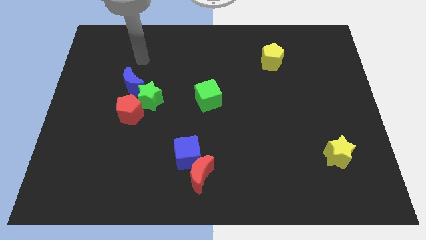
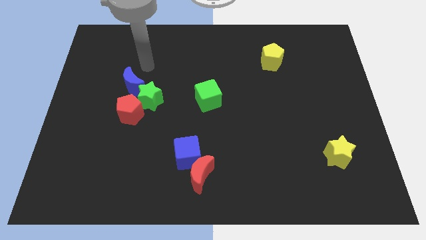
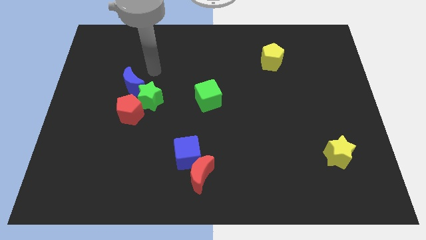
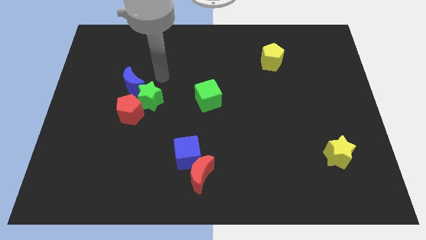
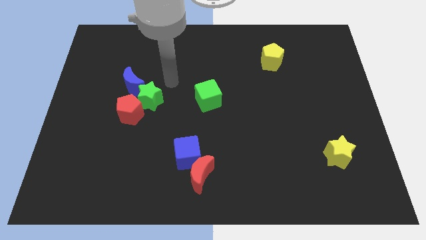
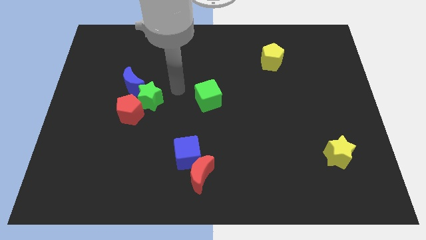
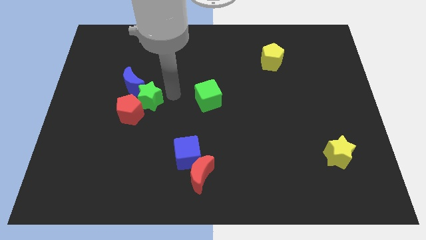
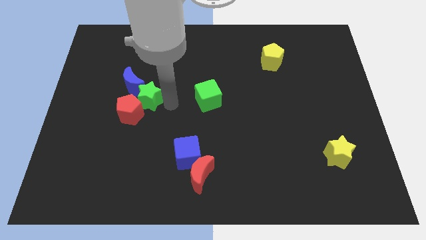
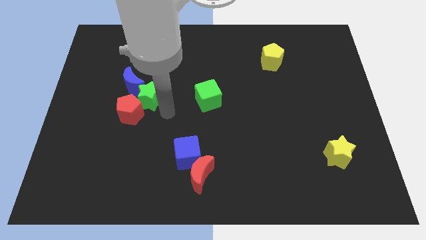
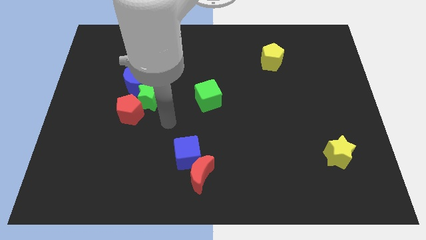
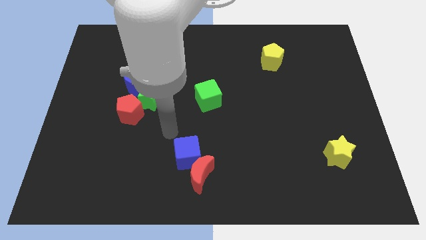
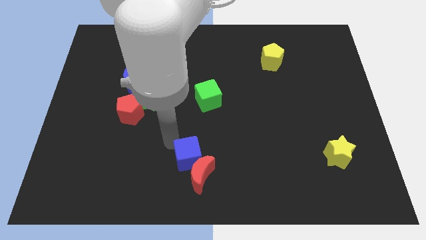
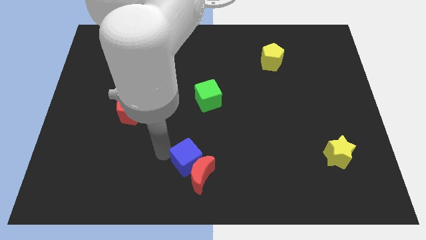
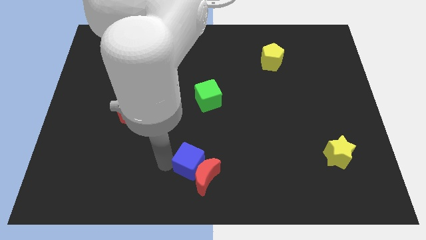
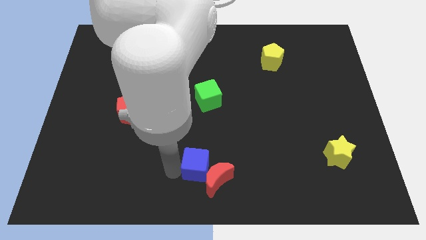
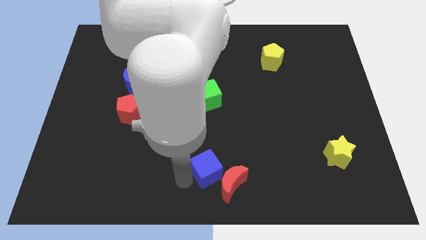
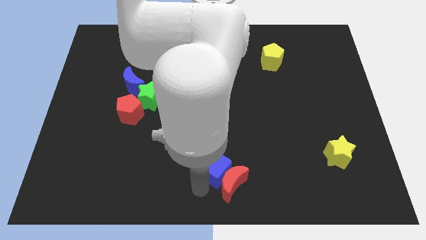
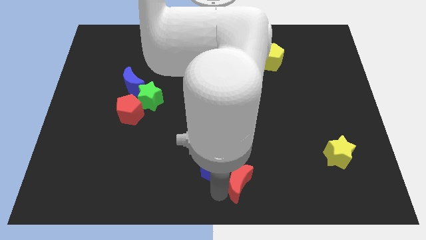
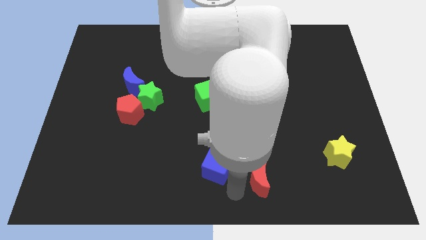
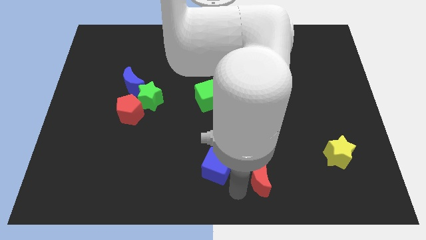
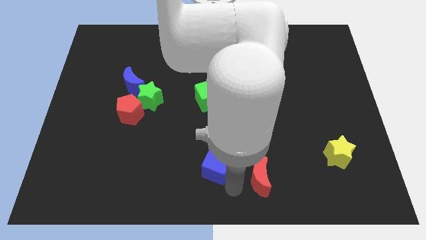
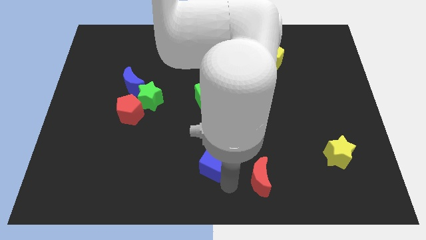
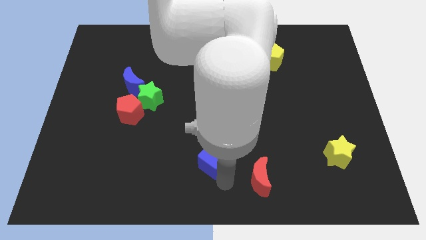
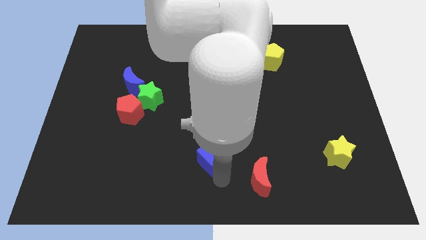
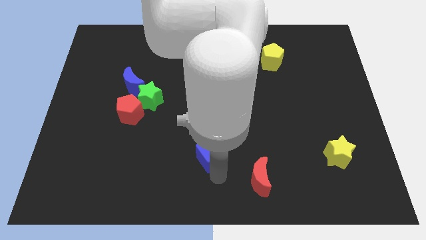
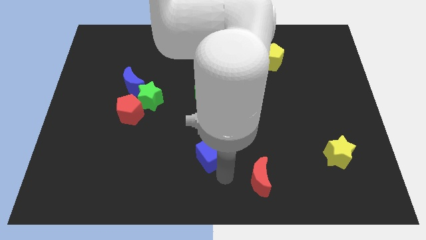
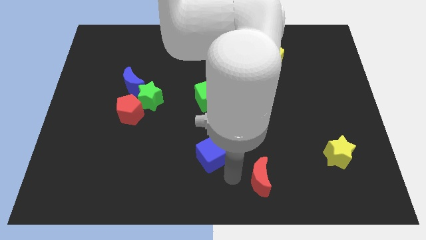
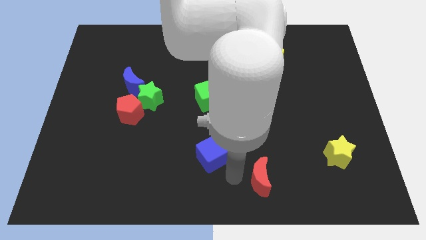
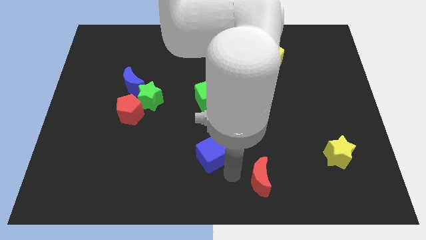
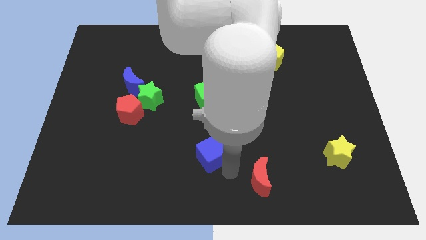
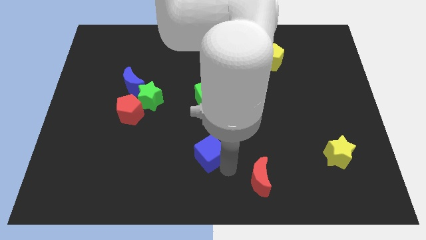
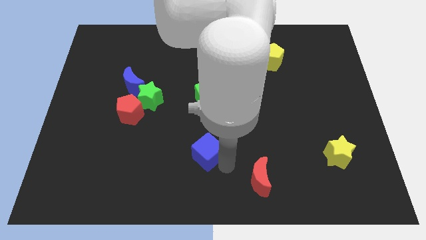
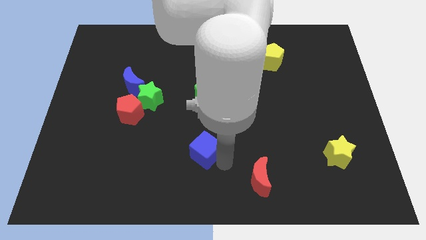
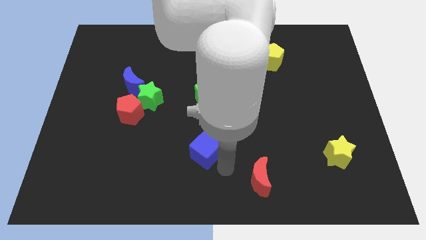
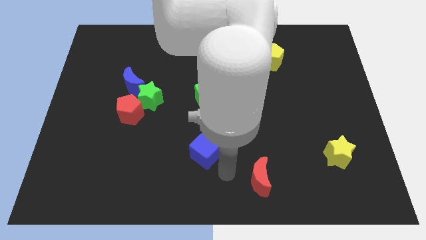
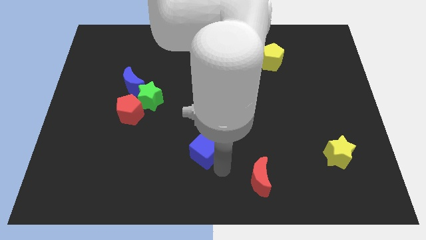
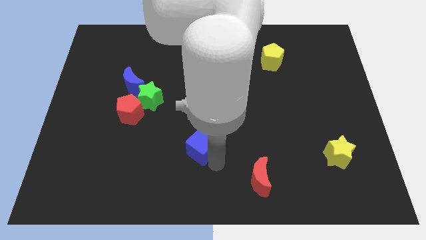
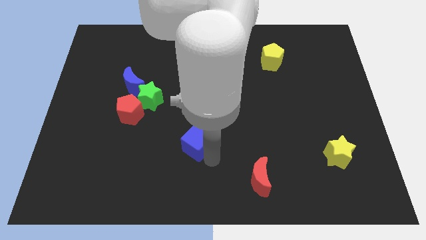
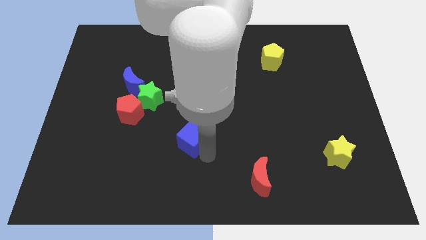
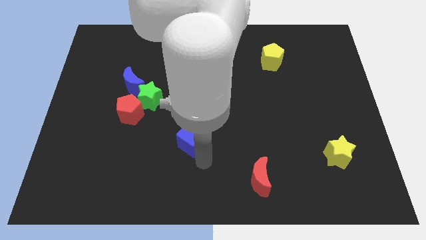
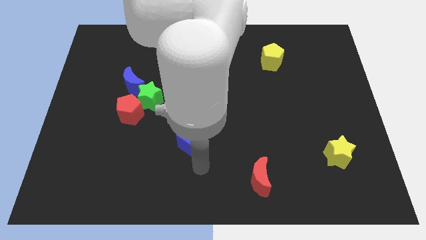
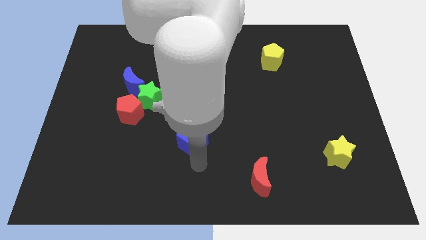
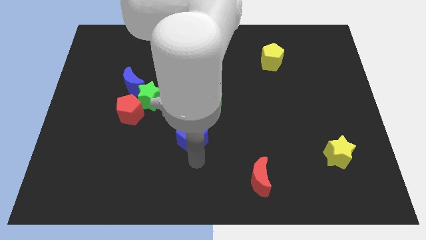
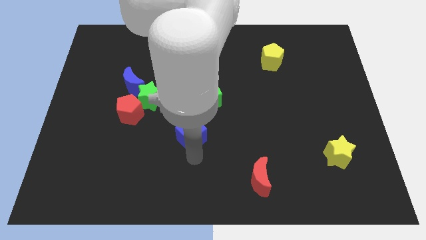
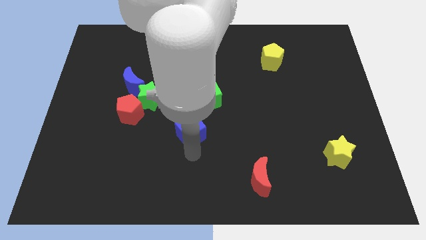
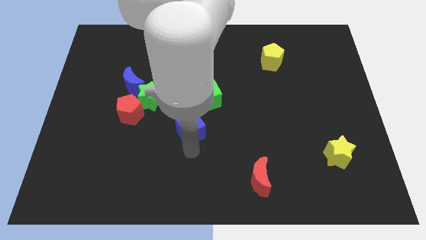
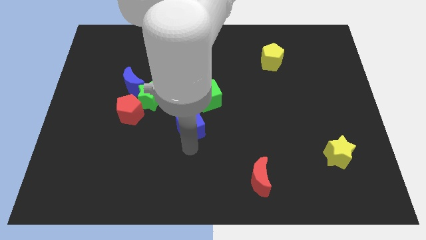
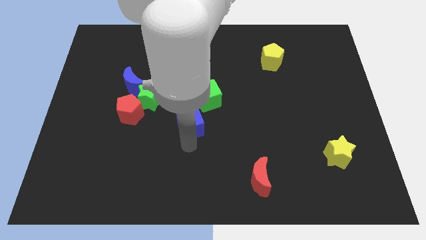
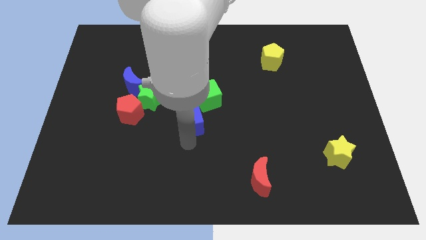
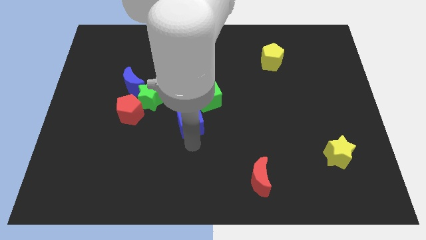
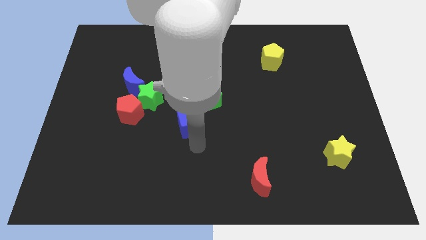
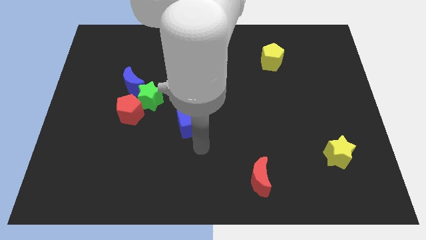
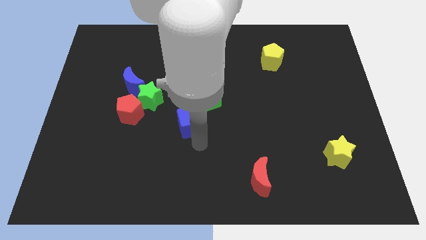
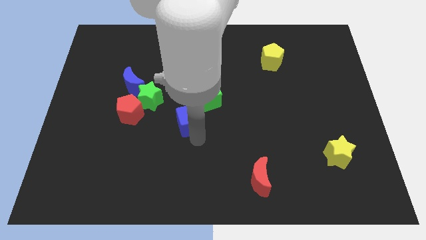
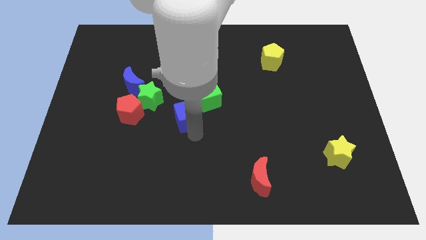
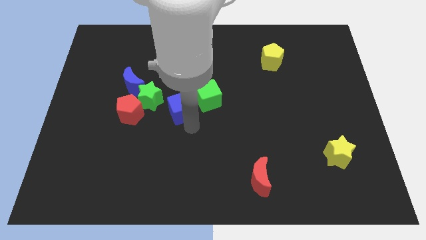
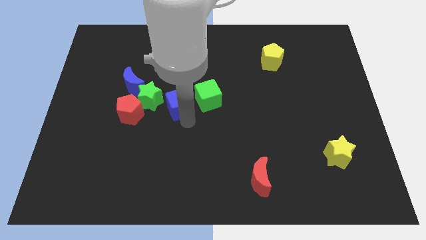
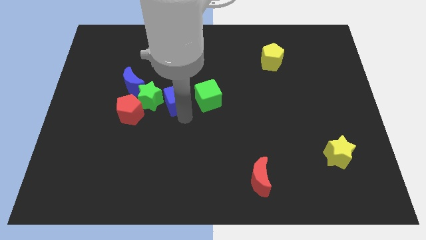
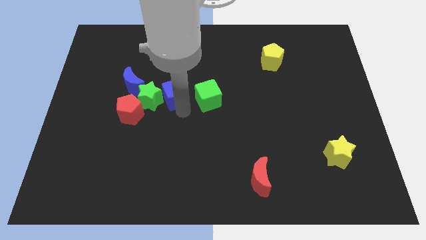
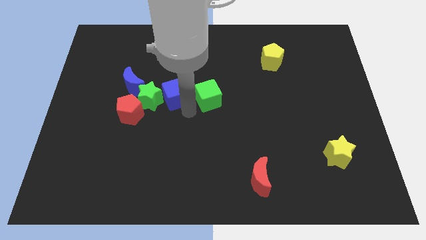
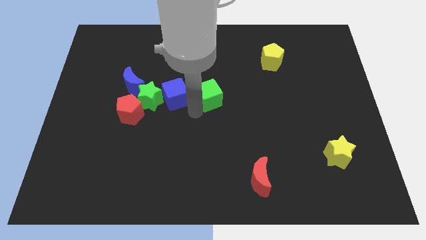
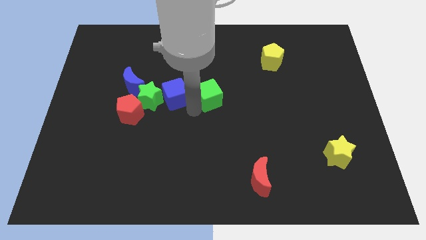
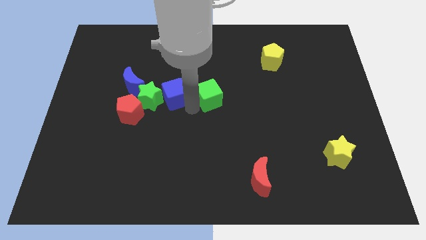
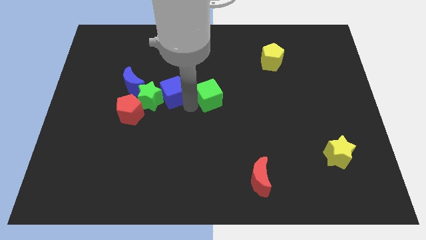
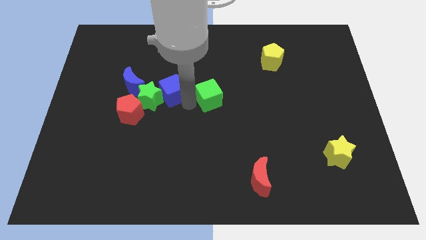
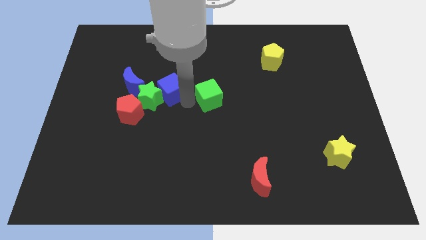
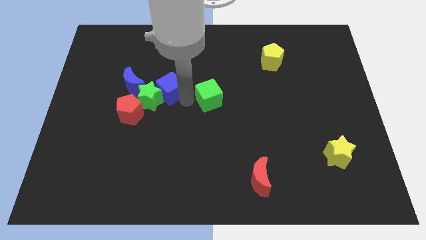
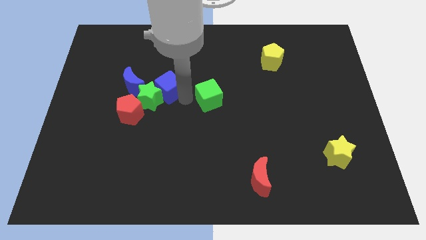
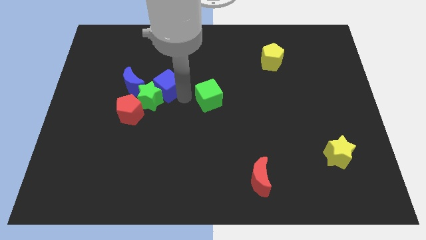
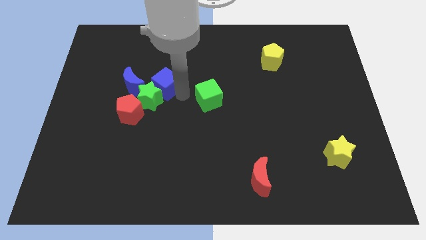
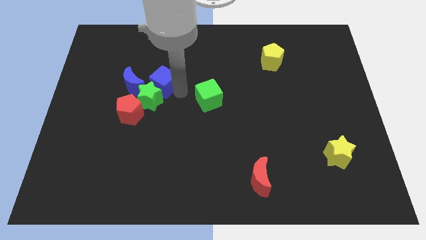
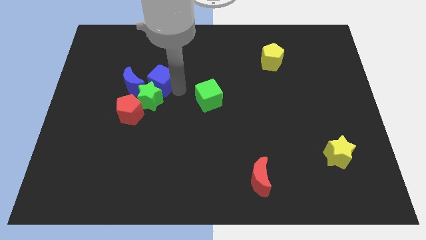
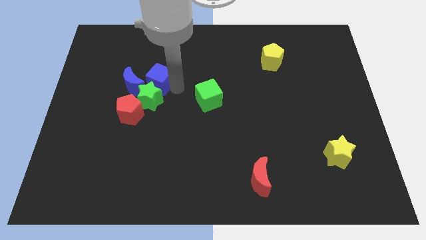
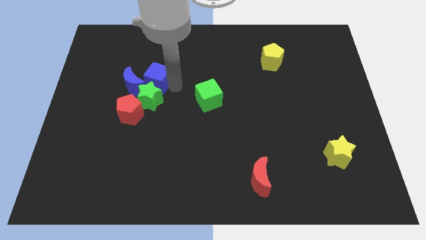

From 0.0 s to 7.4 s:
push the blue cube to the blue moon

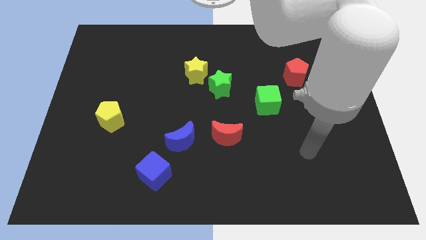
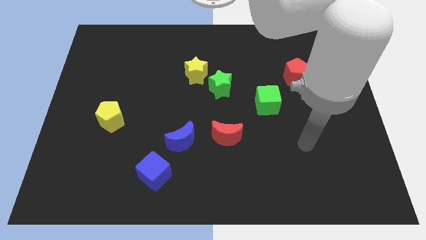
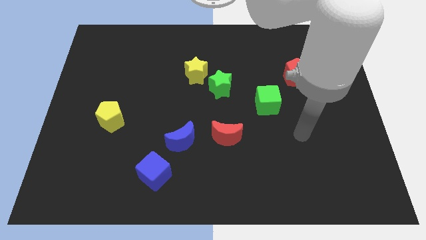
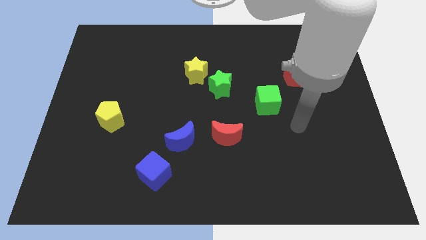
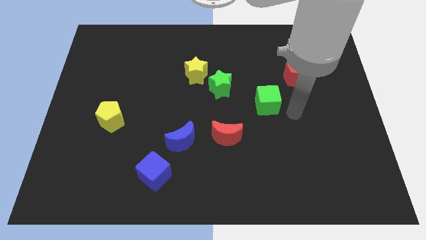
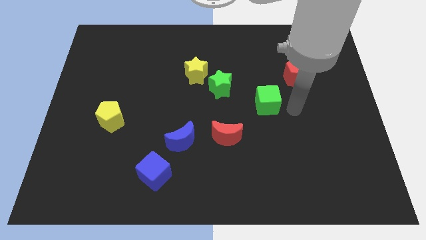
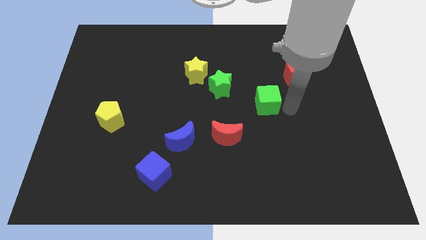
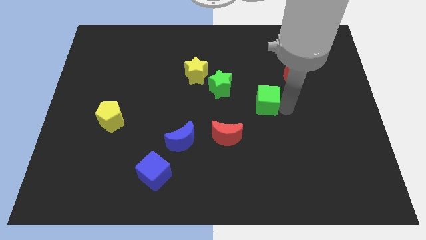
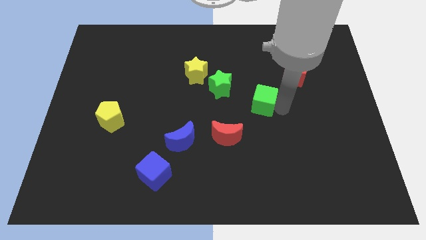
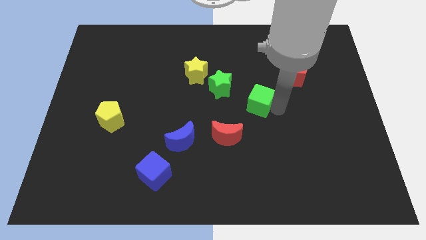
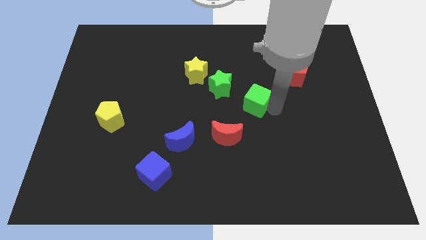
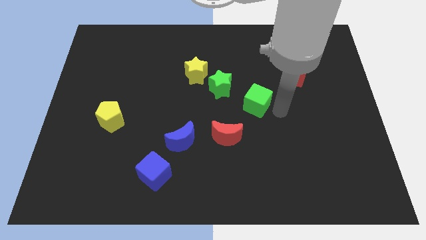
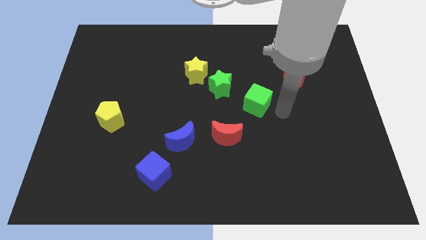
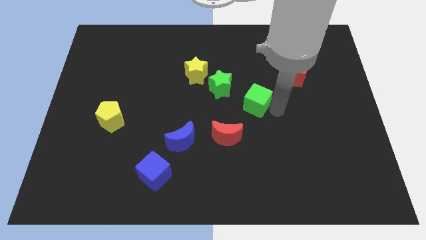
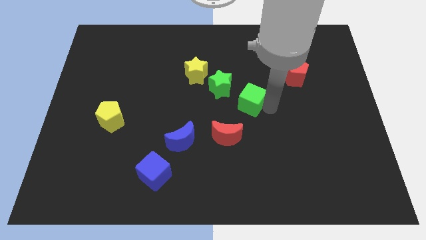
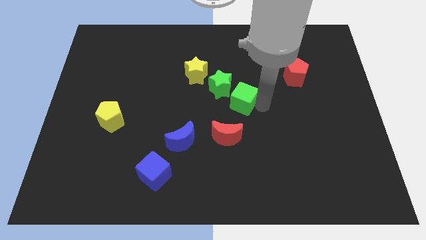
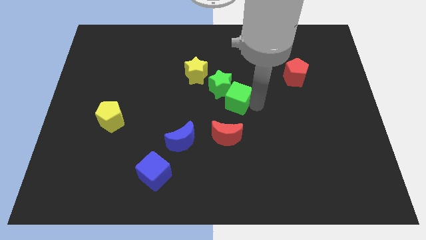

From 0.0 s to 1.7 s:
slide the green cube towards the green star
